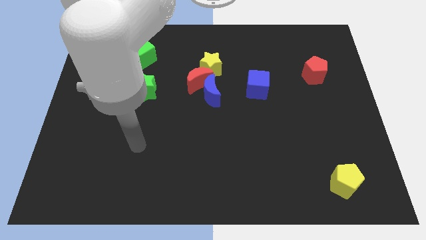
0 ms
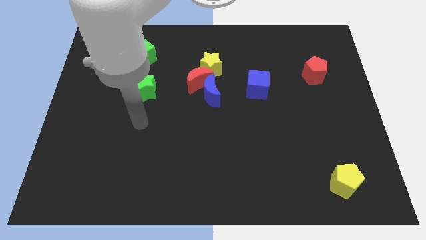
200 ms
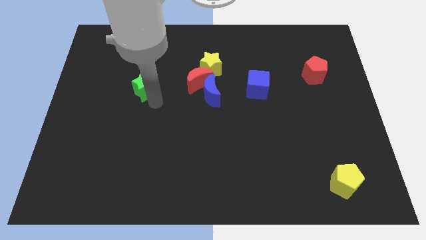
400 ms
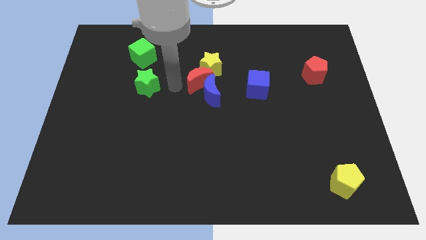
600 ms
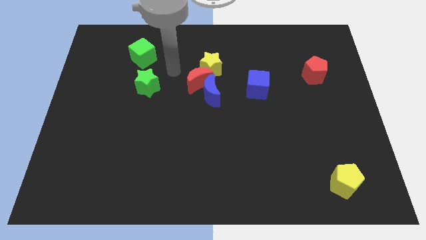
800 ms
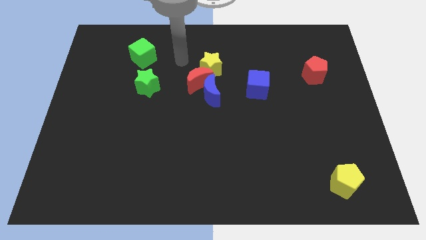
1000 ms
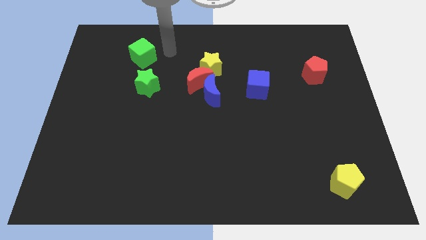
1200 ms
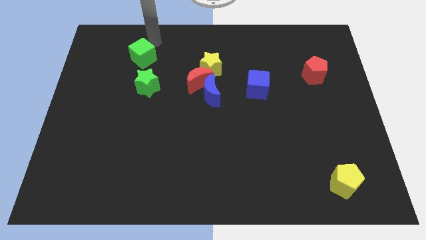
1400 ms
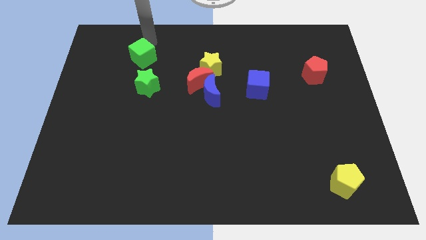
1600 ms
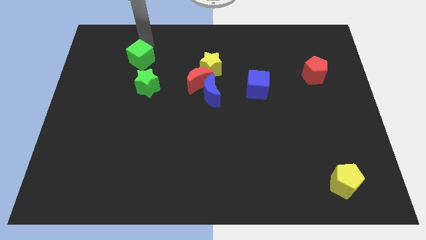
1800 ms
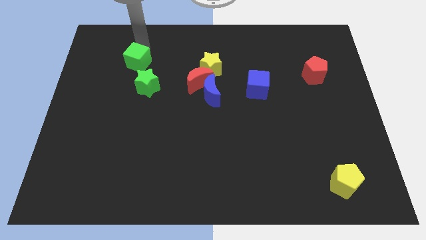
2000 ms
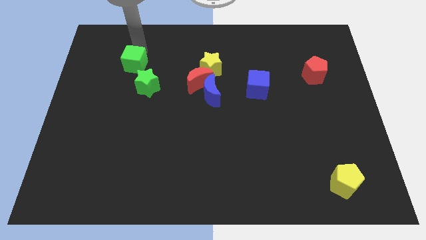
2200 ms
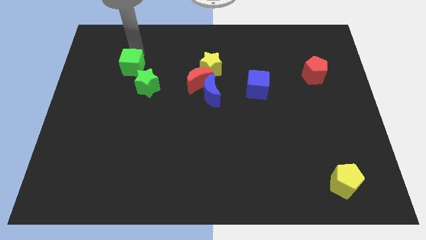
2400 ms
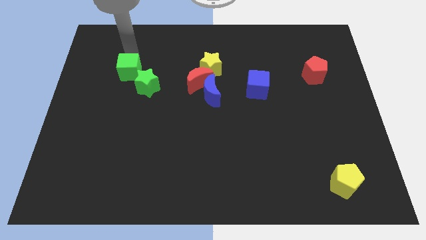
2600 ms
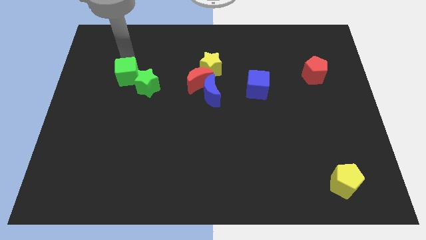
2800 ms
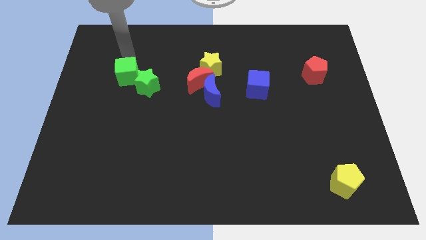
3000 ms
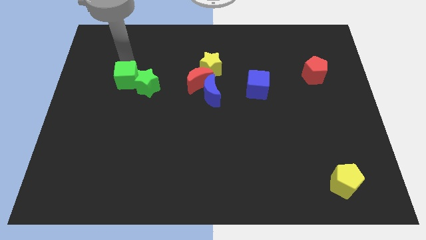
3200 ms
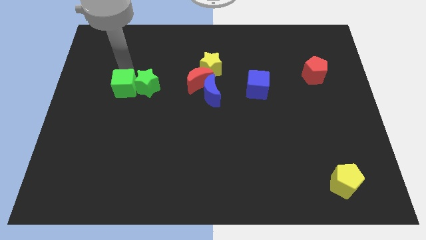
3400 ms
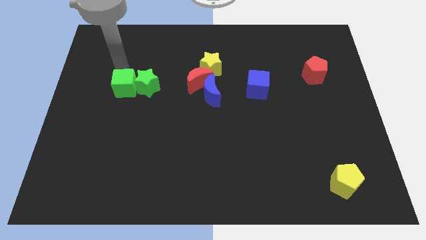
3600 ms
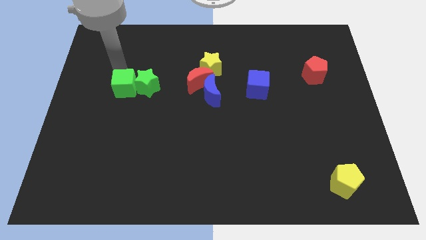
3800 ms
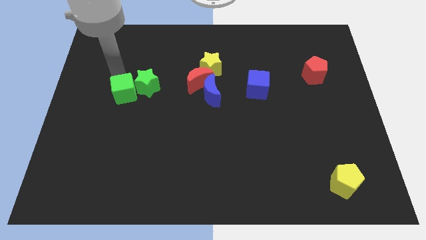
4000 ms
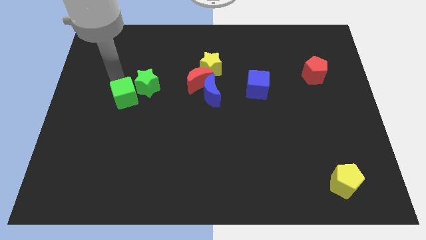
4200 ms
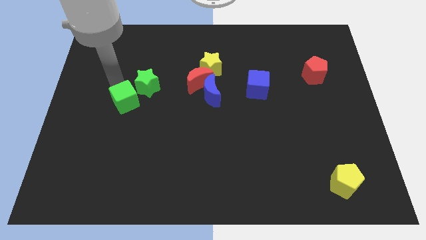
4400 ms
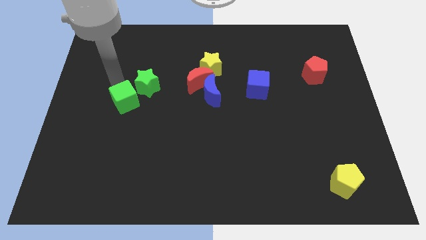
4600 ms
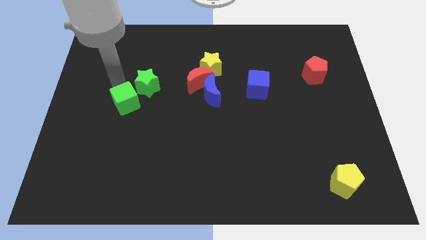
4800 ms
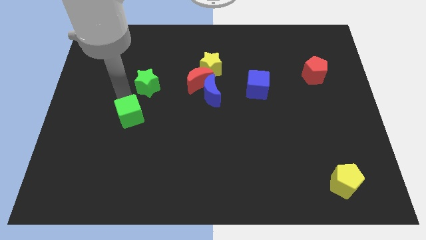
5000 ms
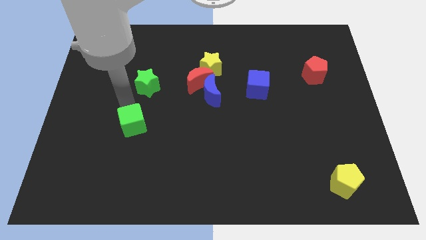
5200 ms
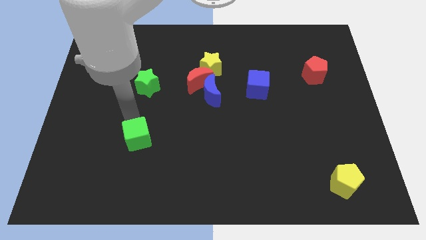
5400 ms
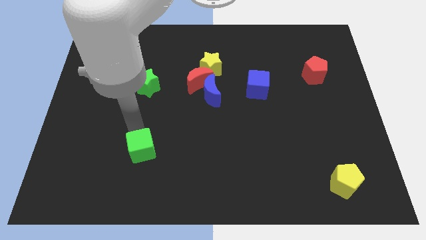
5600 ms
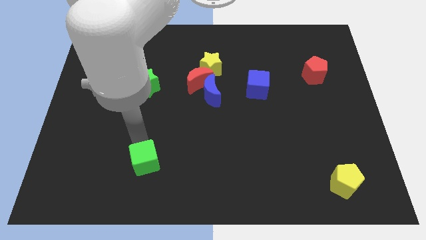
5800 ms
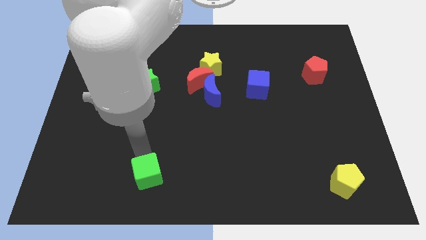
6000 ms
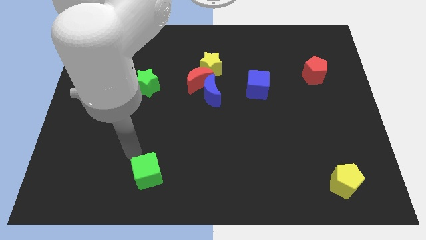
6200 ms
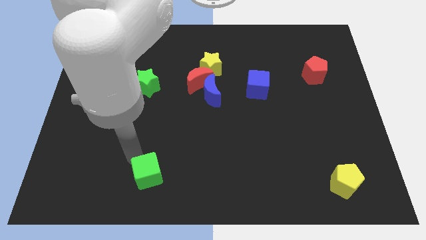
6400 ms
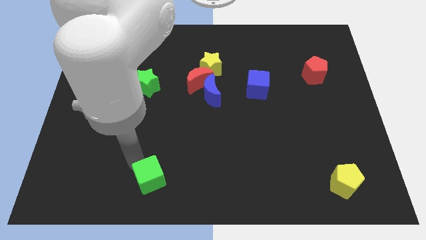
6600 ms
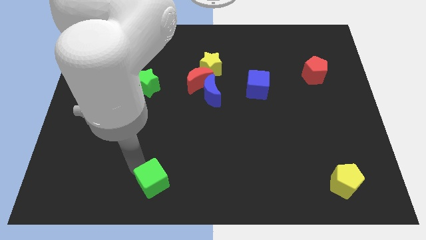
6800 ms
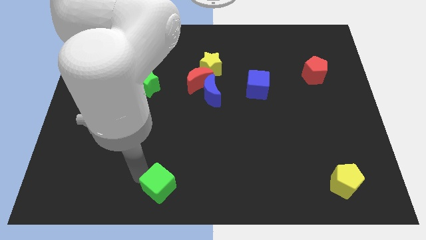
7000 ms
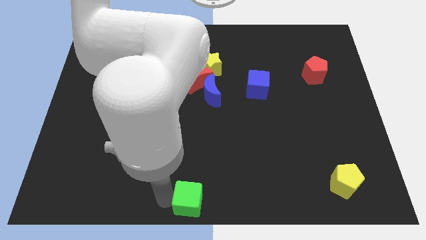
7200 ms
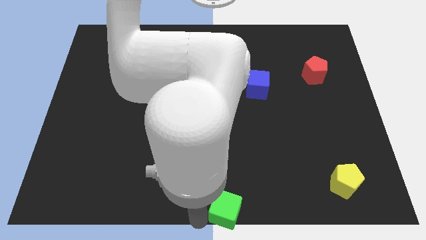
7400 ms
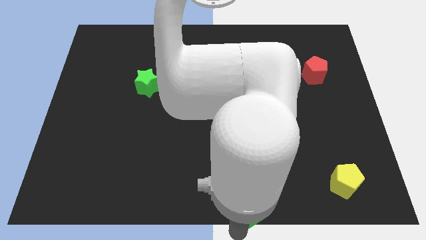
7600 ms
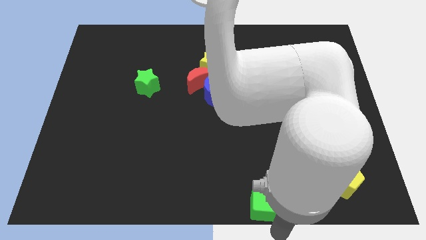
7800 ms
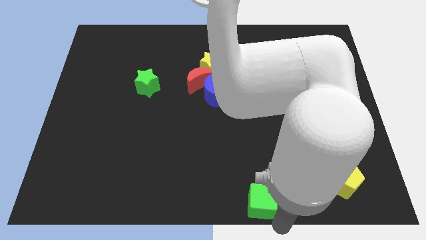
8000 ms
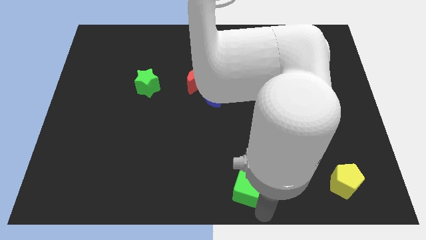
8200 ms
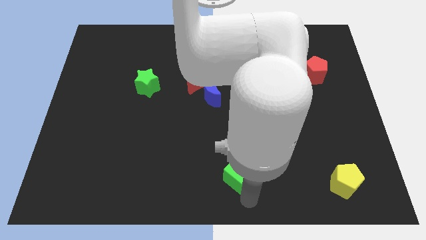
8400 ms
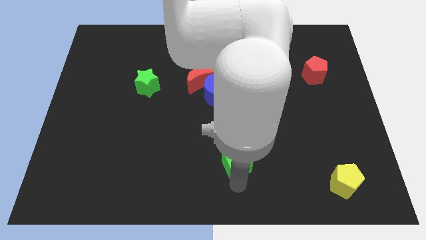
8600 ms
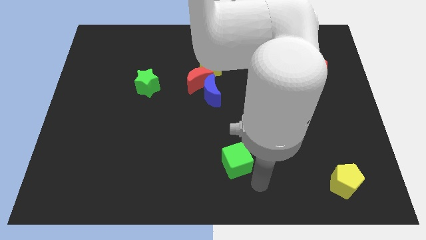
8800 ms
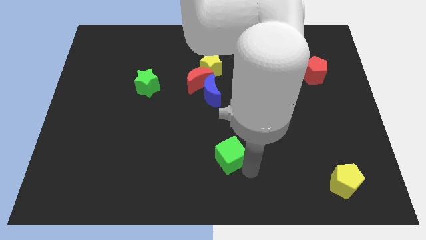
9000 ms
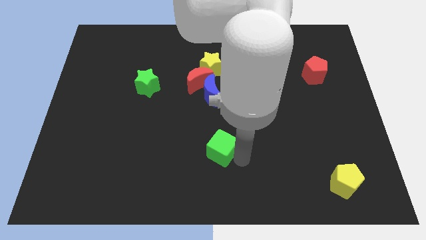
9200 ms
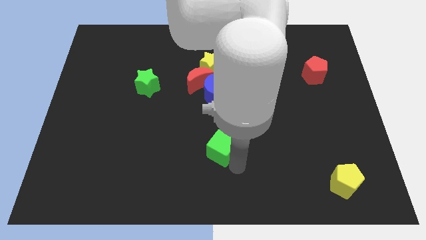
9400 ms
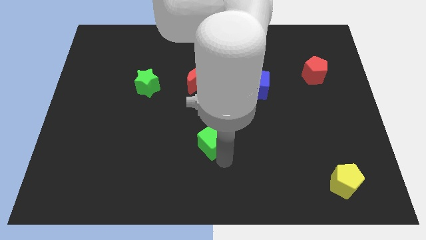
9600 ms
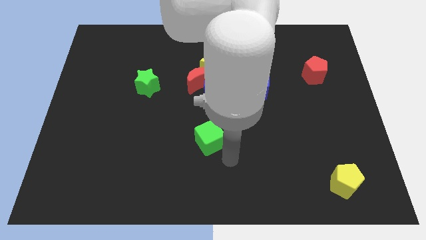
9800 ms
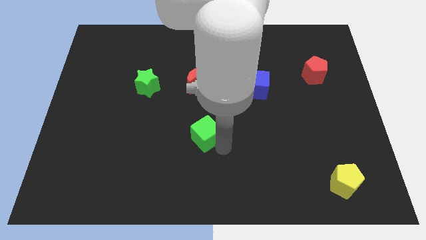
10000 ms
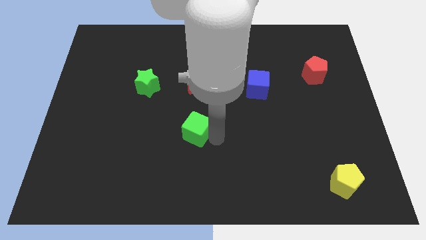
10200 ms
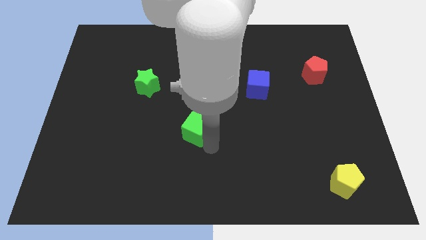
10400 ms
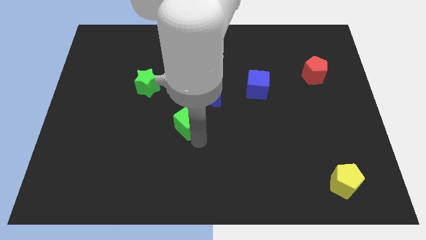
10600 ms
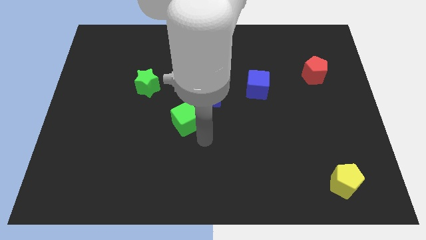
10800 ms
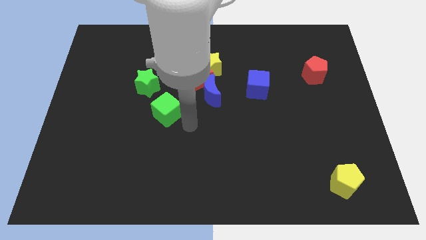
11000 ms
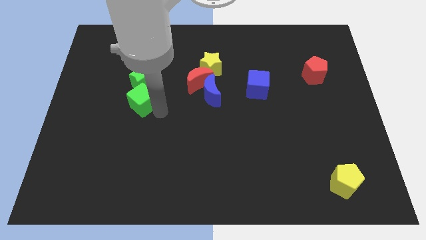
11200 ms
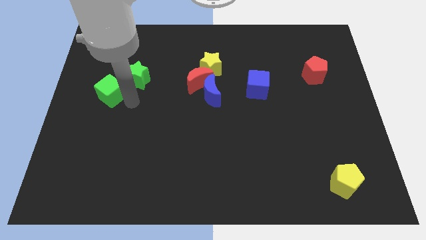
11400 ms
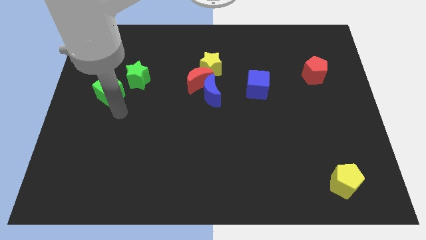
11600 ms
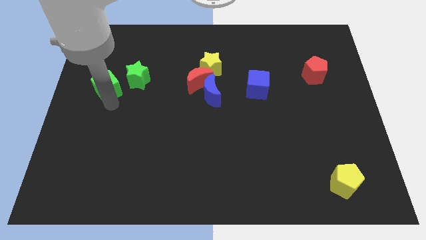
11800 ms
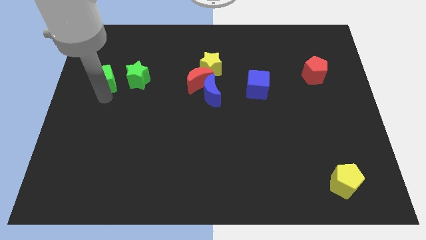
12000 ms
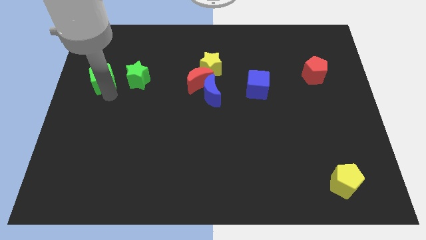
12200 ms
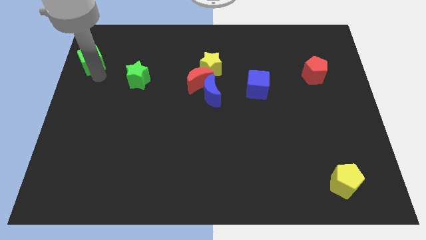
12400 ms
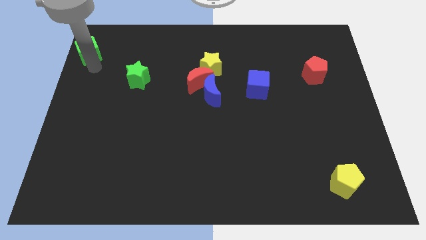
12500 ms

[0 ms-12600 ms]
move the green cube to the upper left corner

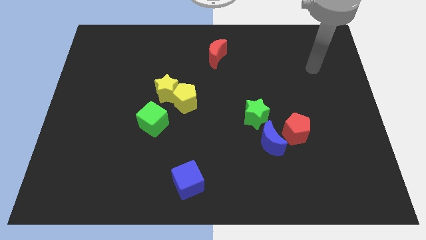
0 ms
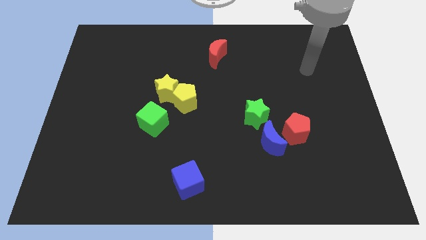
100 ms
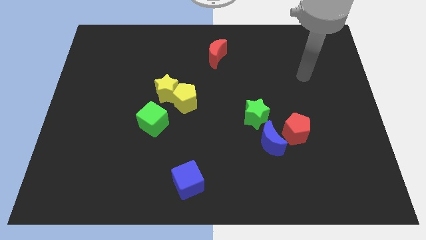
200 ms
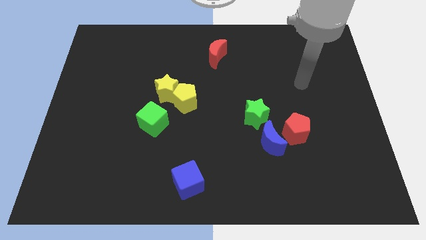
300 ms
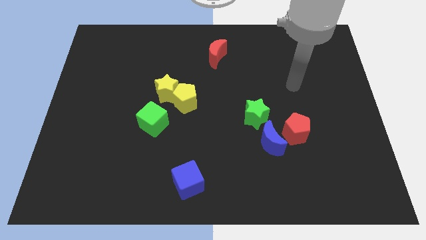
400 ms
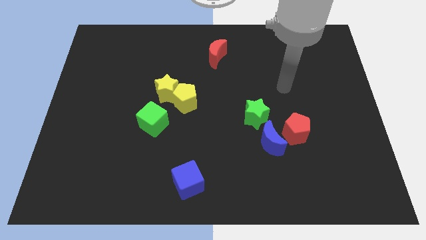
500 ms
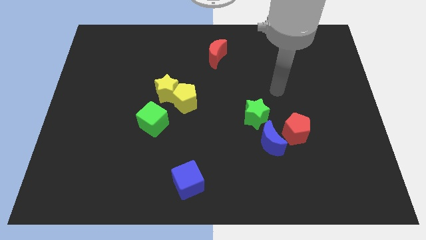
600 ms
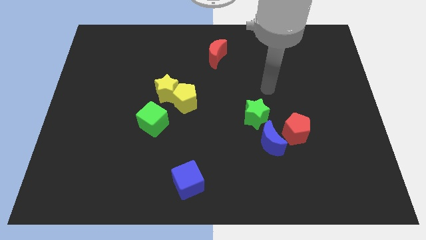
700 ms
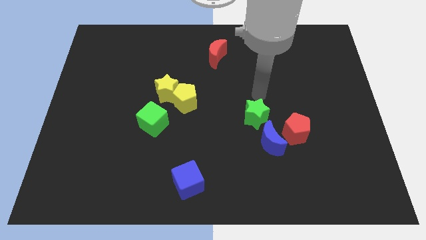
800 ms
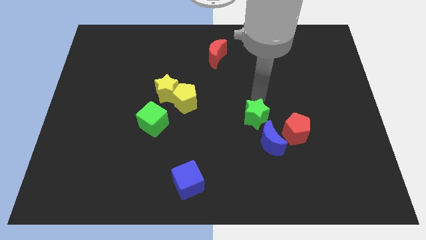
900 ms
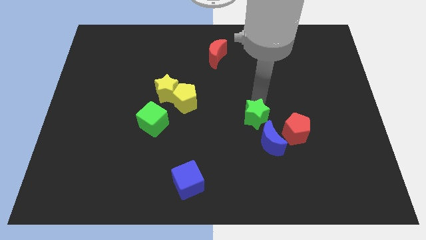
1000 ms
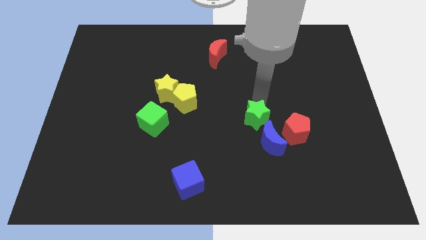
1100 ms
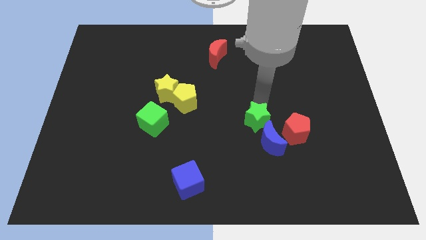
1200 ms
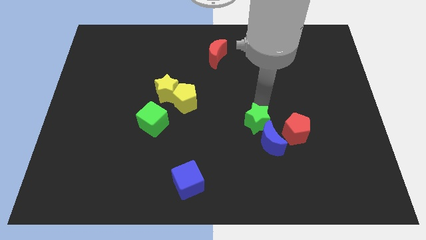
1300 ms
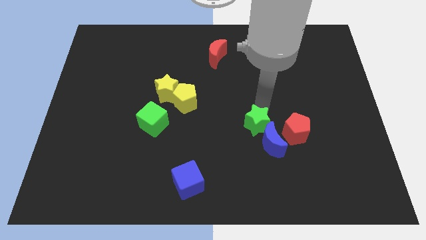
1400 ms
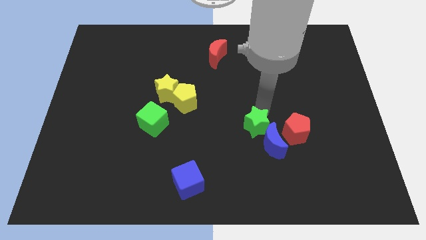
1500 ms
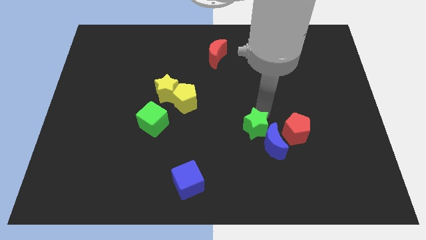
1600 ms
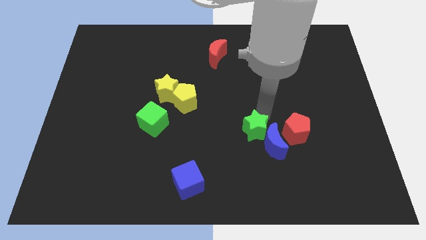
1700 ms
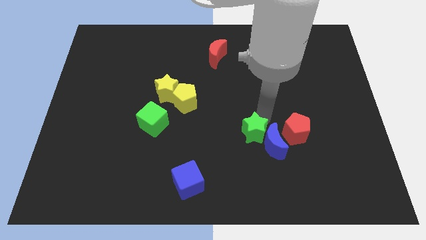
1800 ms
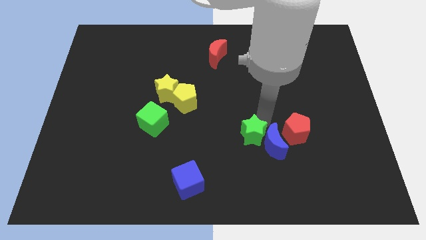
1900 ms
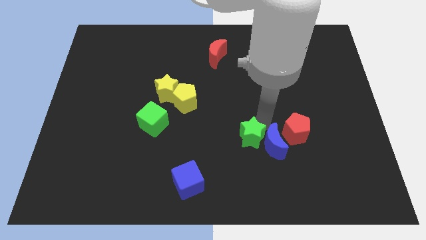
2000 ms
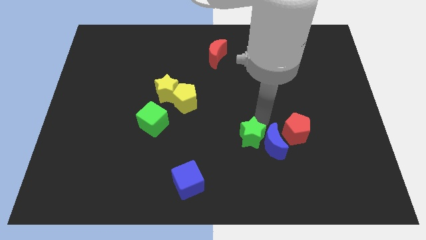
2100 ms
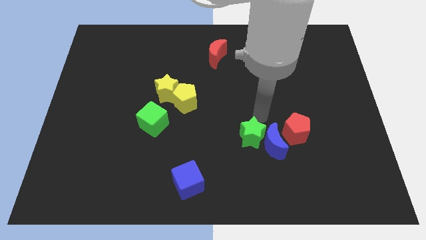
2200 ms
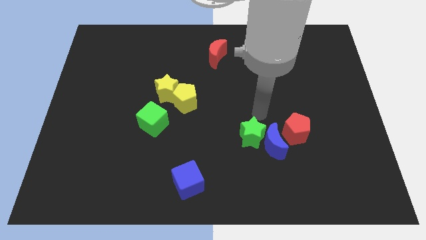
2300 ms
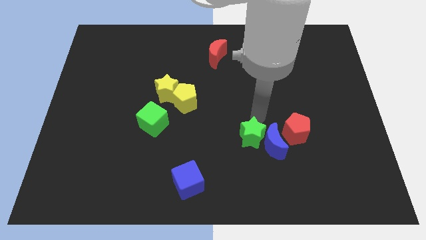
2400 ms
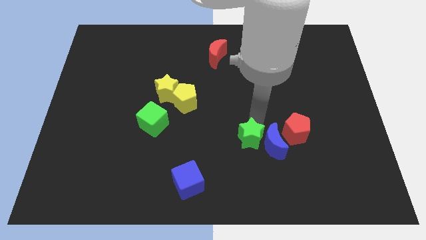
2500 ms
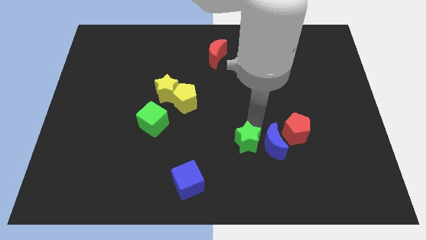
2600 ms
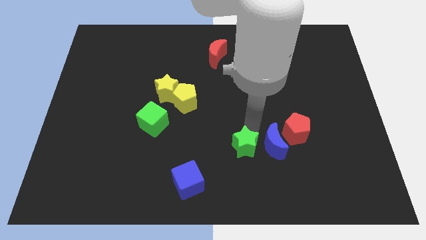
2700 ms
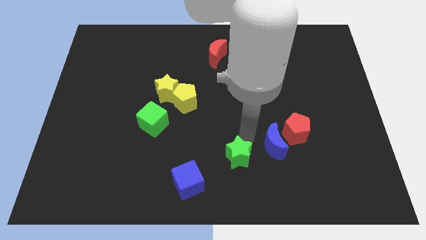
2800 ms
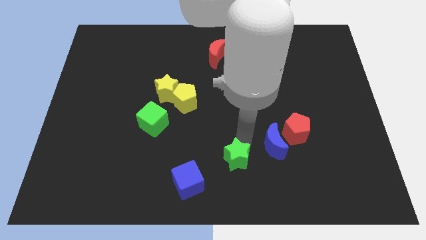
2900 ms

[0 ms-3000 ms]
push the green star to the bottom
